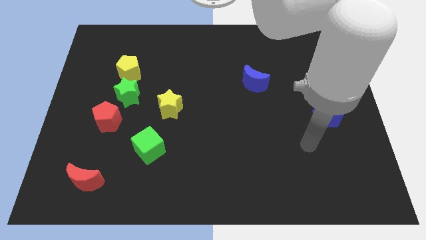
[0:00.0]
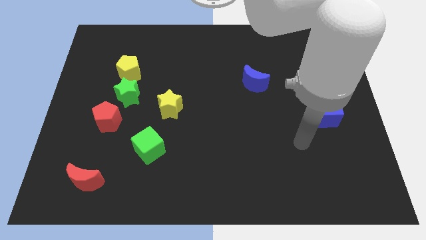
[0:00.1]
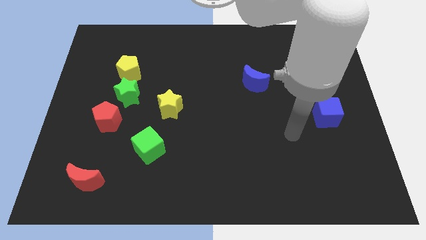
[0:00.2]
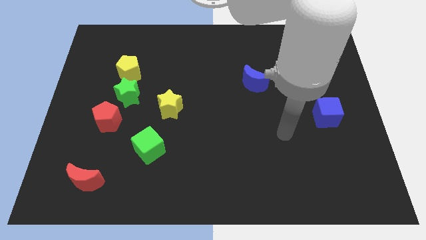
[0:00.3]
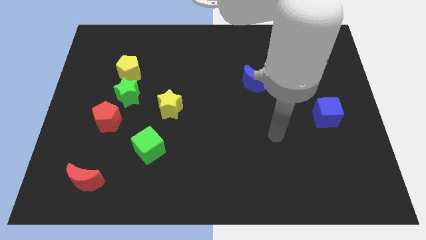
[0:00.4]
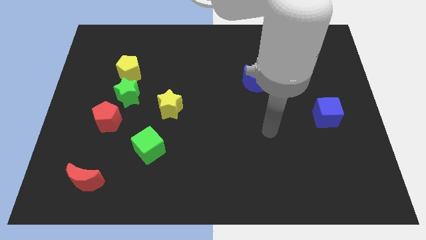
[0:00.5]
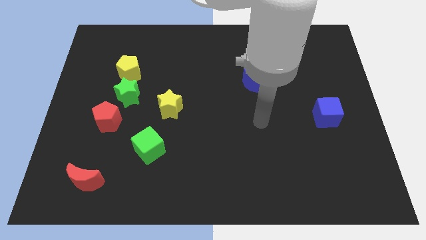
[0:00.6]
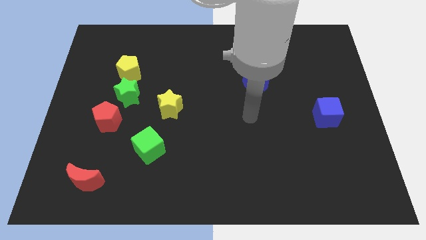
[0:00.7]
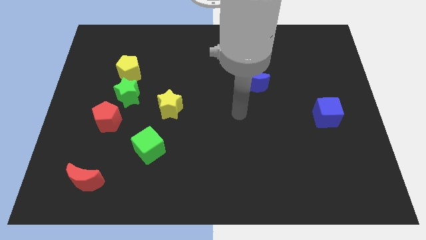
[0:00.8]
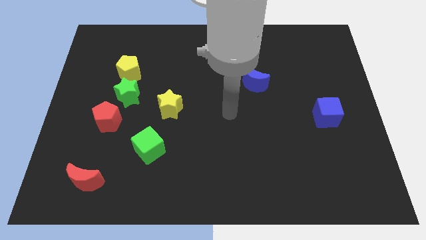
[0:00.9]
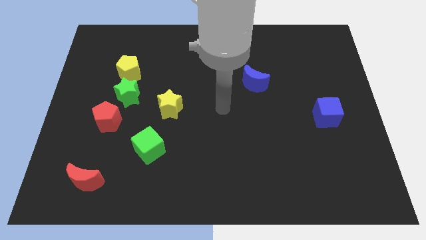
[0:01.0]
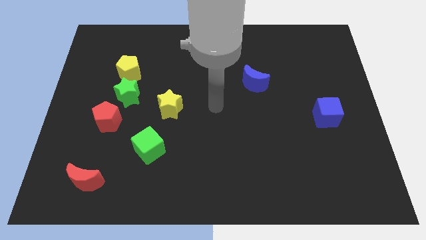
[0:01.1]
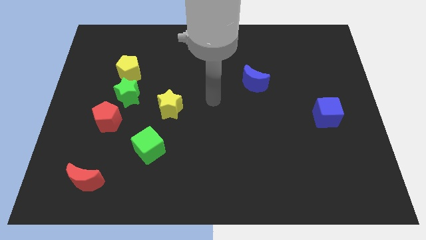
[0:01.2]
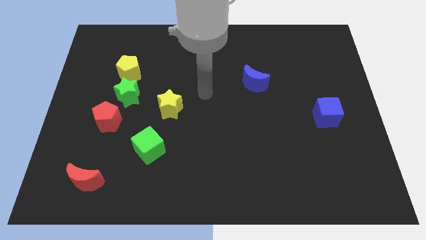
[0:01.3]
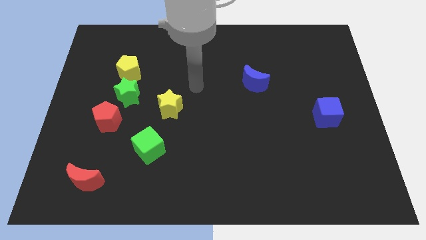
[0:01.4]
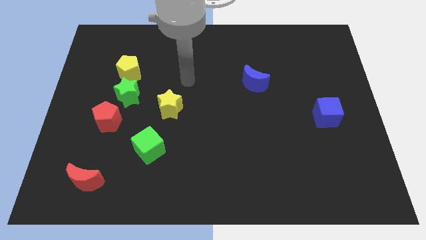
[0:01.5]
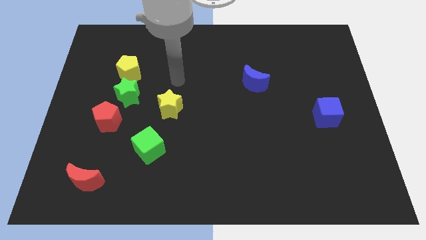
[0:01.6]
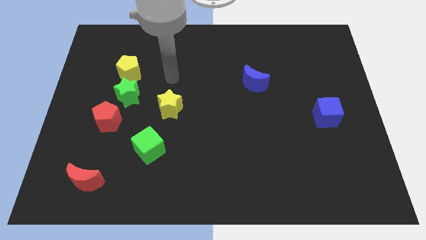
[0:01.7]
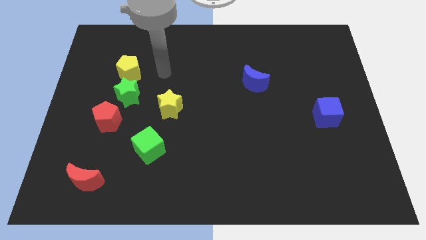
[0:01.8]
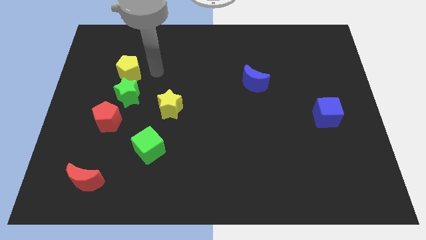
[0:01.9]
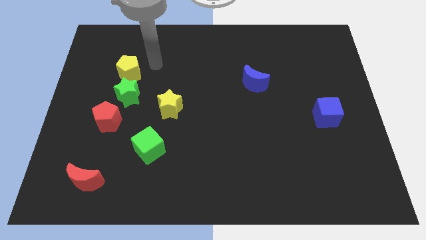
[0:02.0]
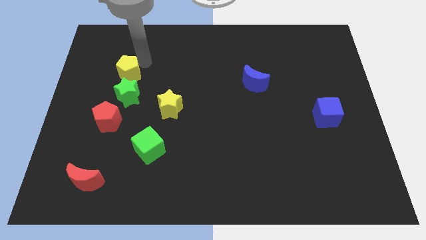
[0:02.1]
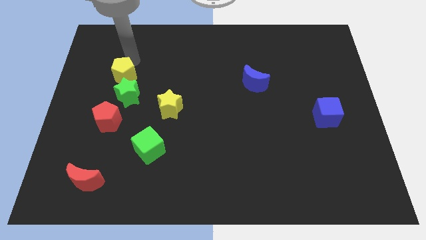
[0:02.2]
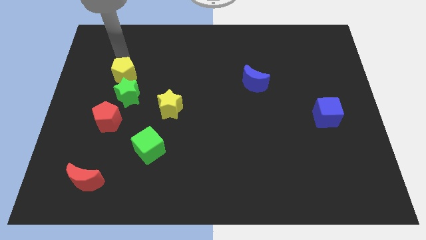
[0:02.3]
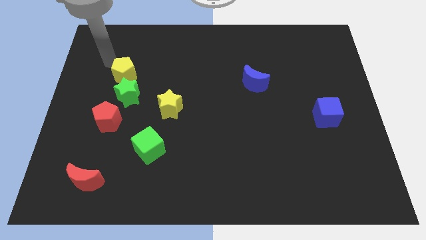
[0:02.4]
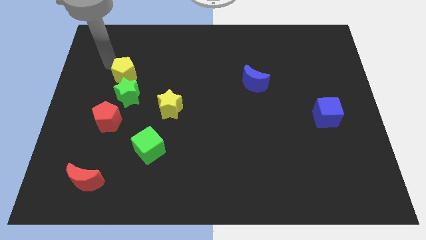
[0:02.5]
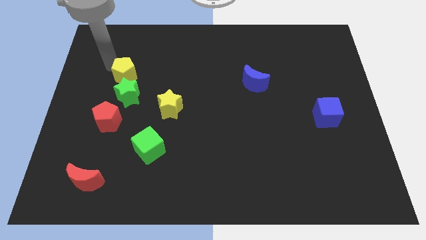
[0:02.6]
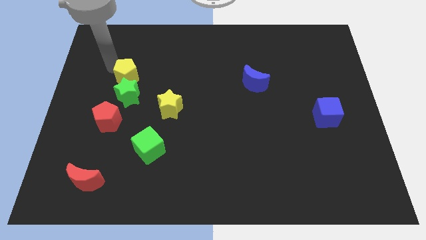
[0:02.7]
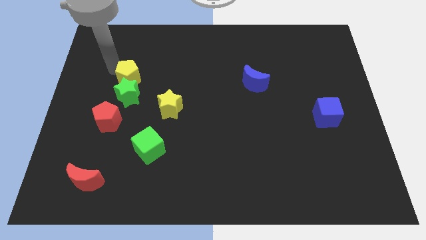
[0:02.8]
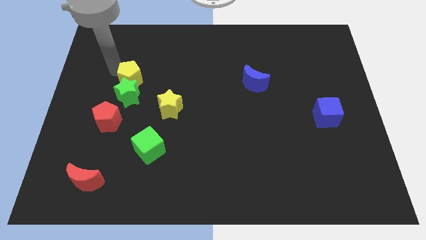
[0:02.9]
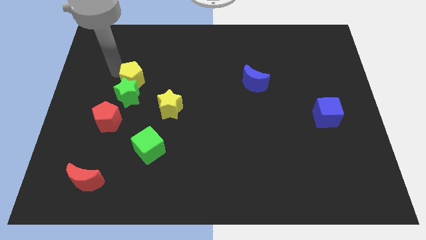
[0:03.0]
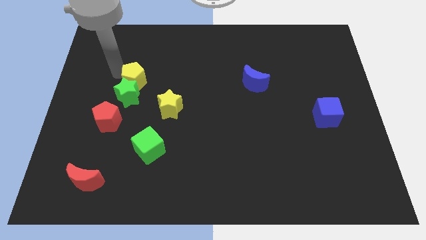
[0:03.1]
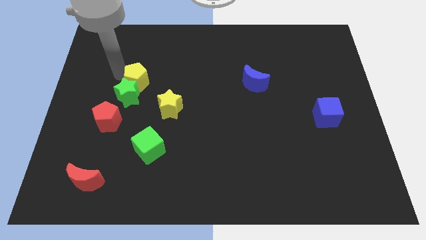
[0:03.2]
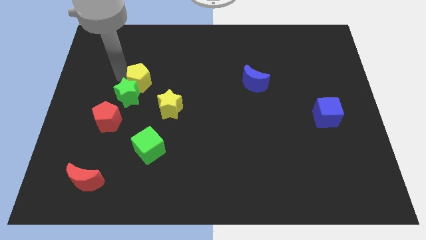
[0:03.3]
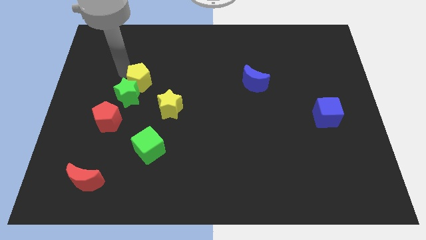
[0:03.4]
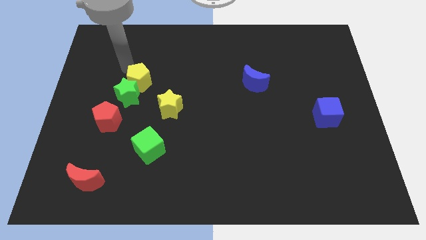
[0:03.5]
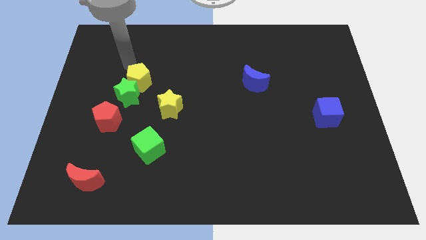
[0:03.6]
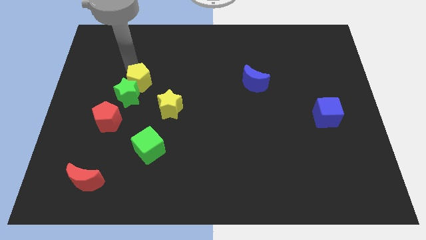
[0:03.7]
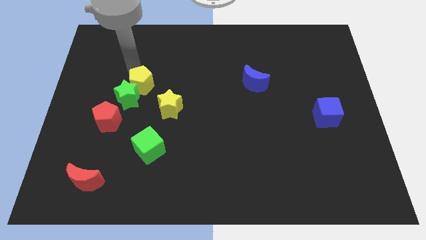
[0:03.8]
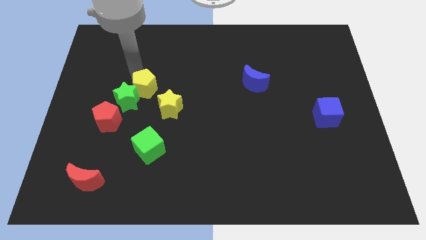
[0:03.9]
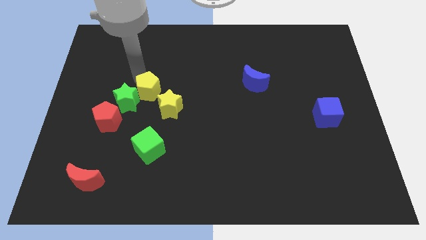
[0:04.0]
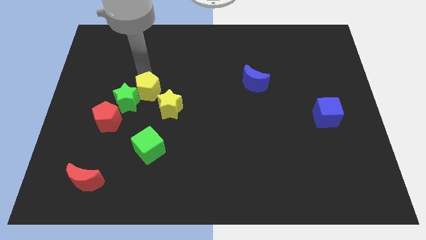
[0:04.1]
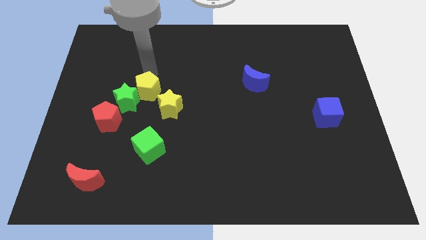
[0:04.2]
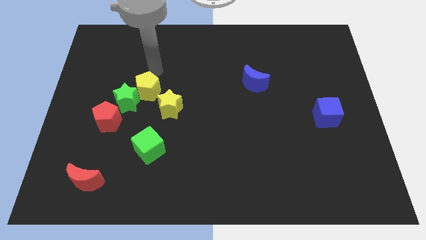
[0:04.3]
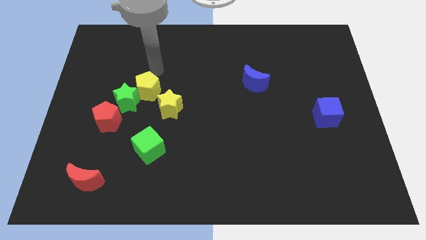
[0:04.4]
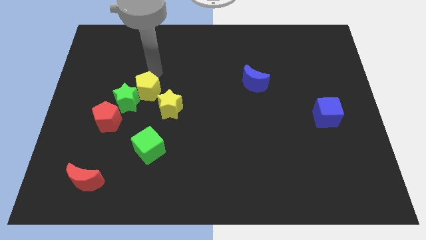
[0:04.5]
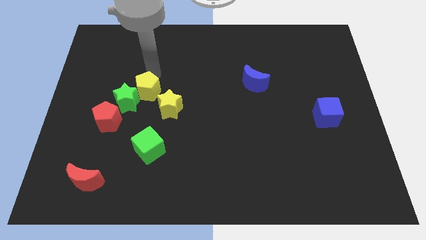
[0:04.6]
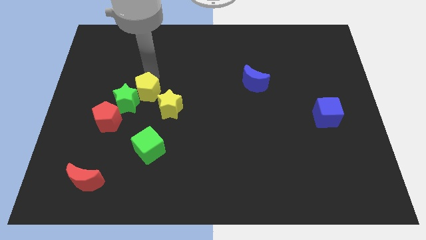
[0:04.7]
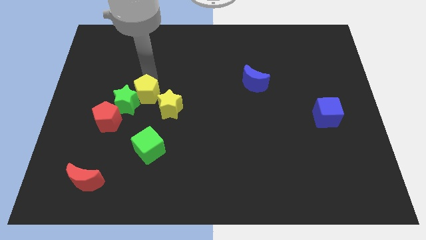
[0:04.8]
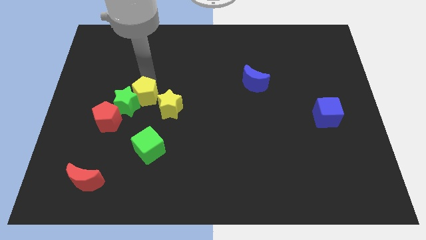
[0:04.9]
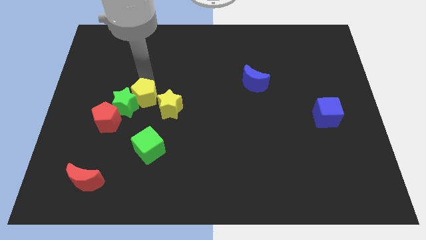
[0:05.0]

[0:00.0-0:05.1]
move the yellow pentagon downwards a bit

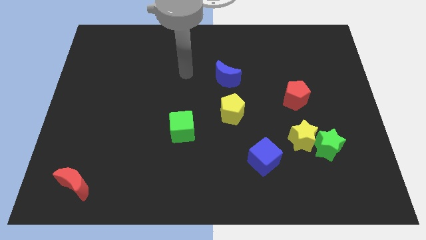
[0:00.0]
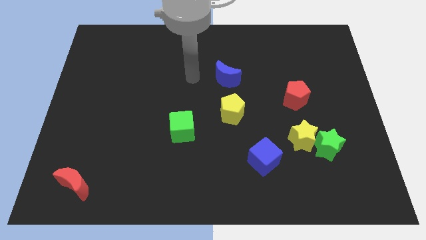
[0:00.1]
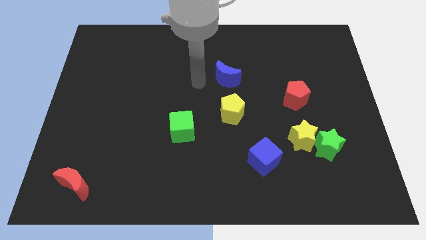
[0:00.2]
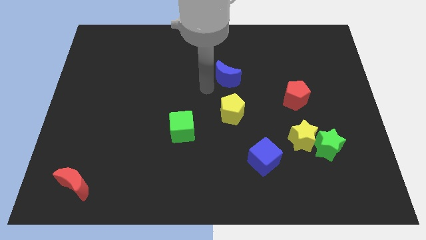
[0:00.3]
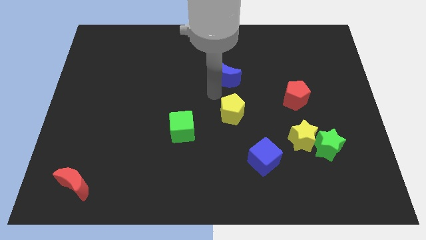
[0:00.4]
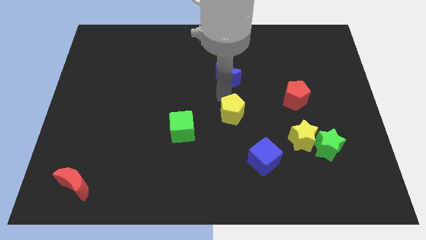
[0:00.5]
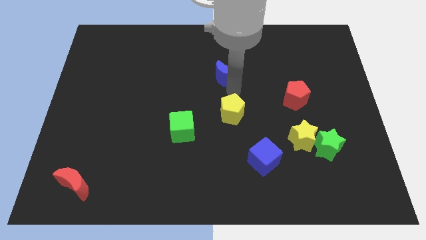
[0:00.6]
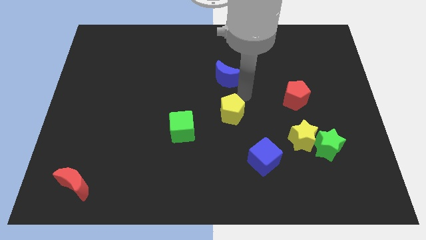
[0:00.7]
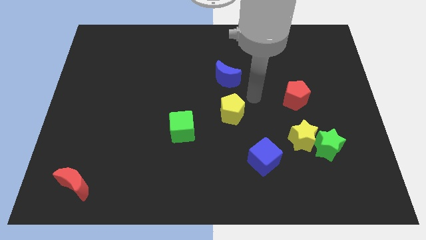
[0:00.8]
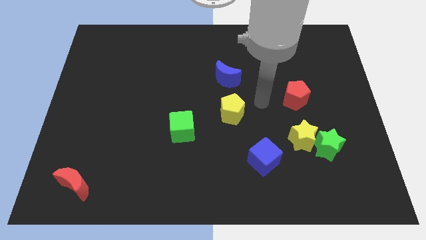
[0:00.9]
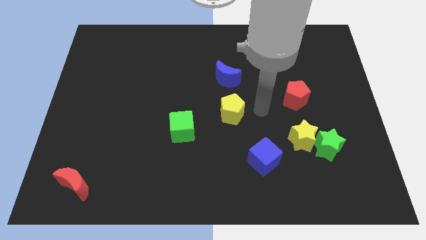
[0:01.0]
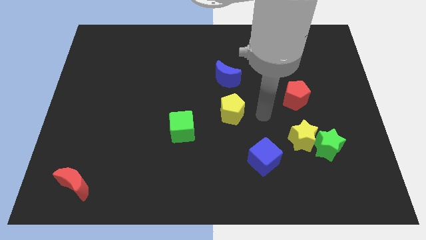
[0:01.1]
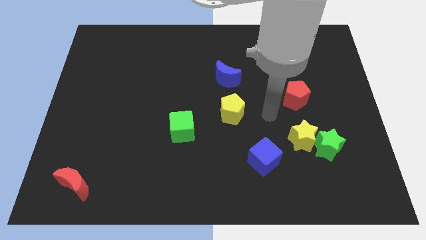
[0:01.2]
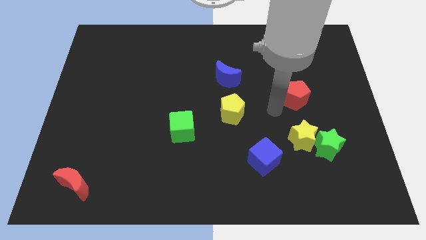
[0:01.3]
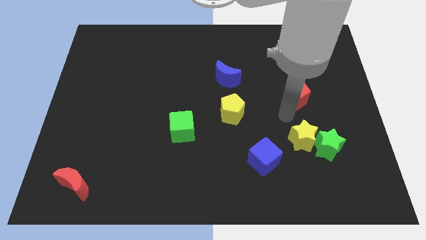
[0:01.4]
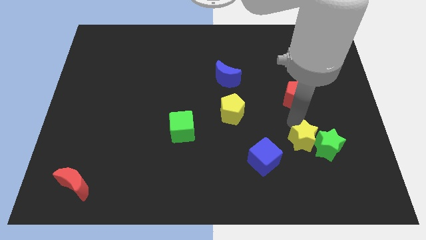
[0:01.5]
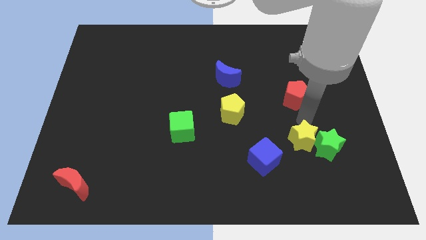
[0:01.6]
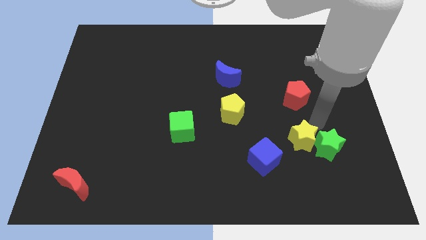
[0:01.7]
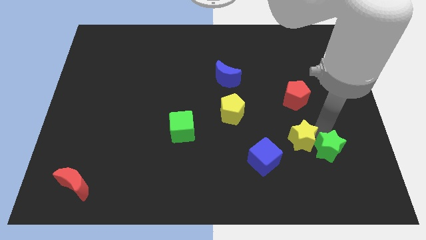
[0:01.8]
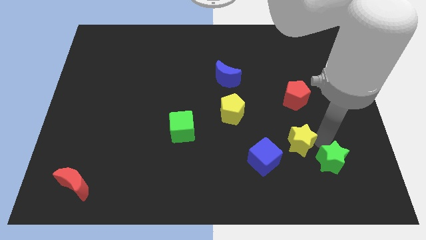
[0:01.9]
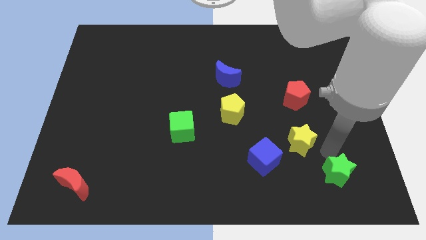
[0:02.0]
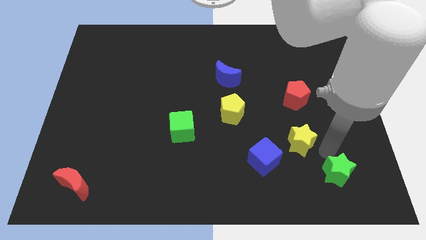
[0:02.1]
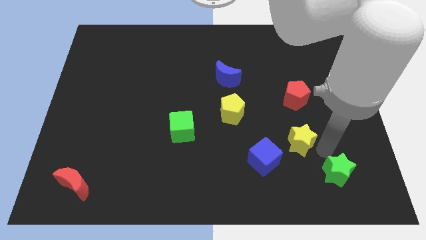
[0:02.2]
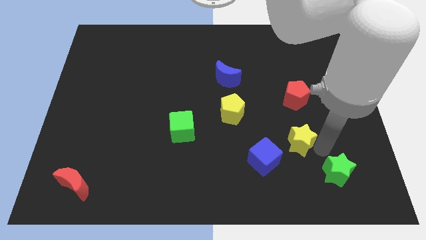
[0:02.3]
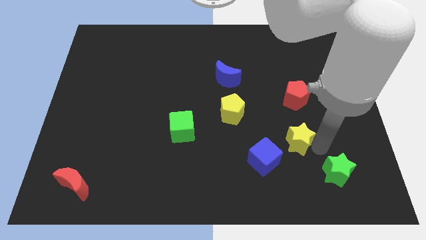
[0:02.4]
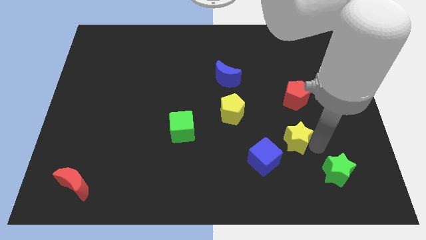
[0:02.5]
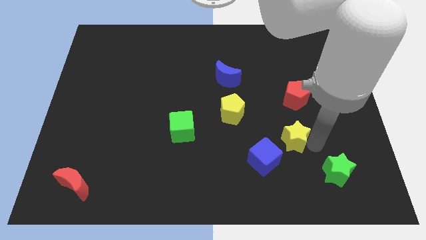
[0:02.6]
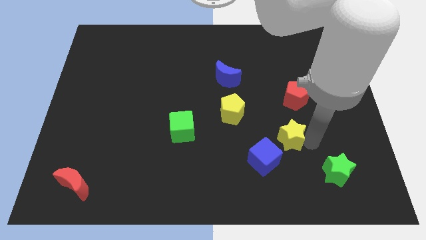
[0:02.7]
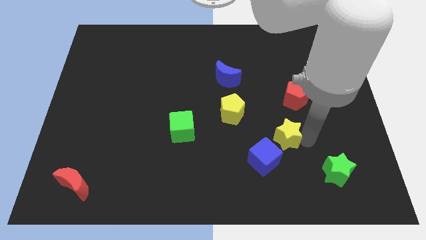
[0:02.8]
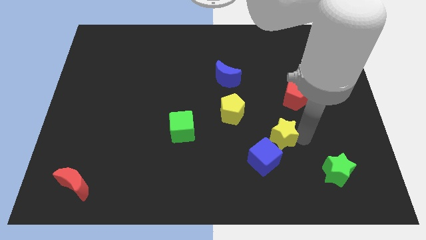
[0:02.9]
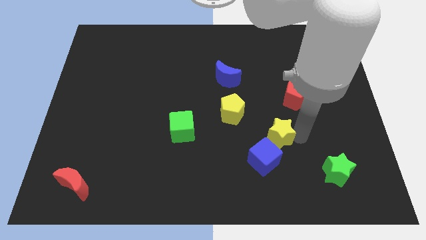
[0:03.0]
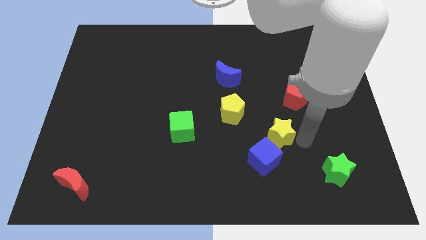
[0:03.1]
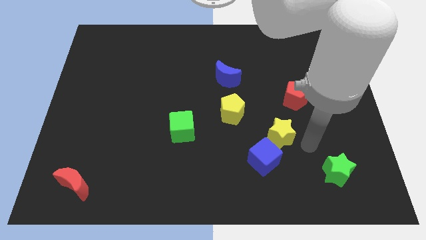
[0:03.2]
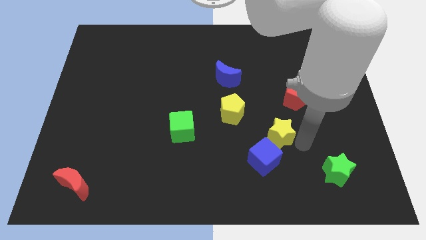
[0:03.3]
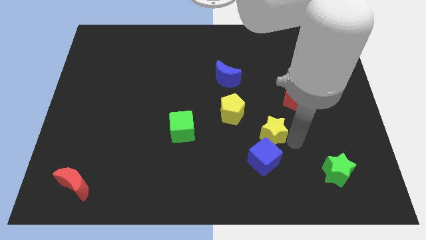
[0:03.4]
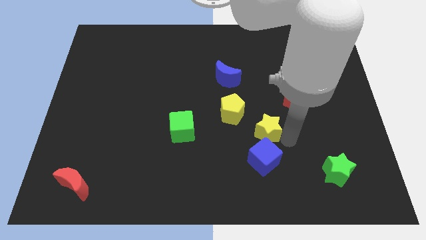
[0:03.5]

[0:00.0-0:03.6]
slide the yellow star left a little bit
